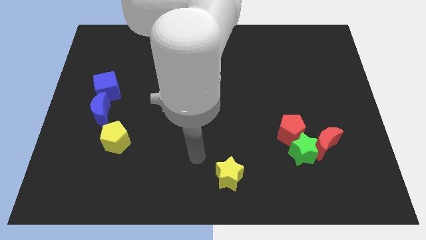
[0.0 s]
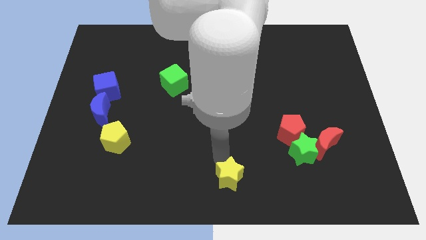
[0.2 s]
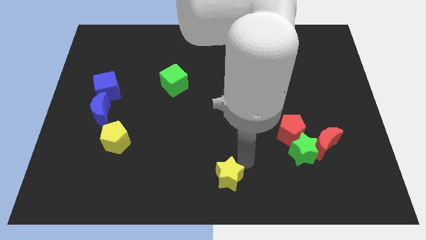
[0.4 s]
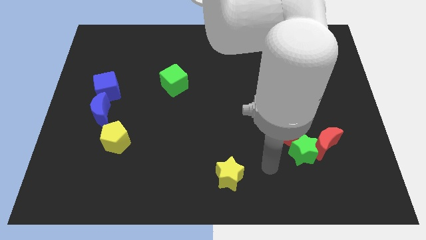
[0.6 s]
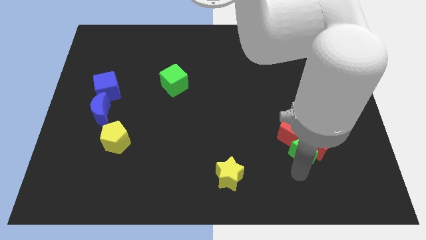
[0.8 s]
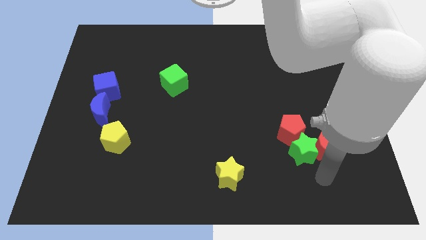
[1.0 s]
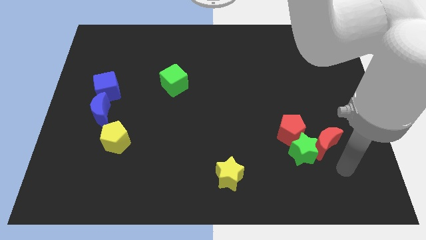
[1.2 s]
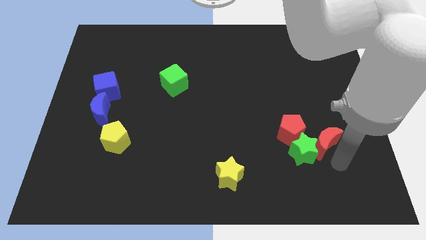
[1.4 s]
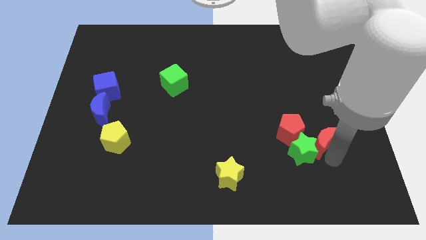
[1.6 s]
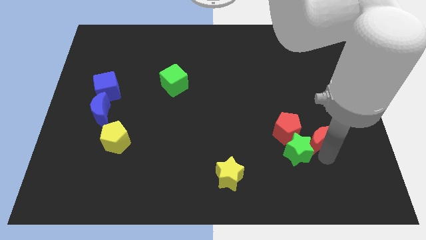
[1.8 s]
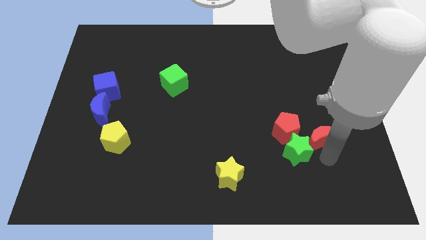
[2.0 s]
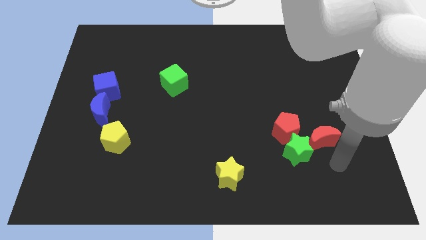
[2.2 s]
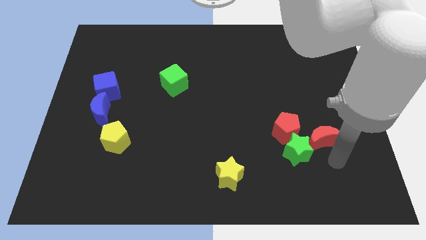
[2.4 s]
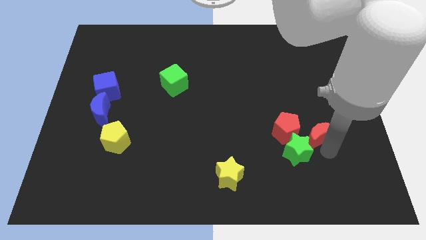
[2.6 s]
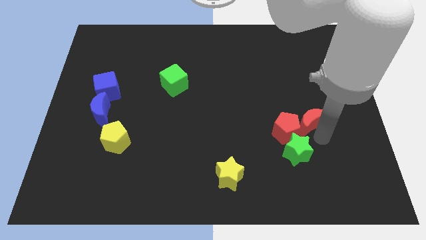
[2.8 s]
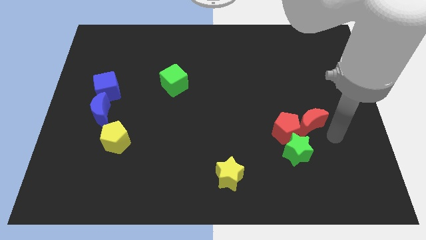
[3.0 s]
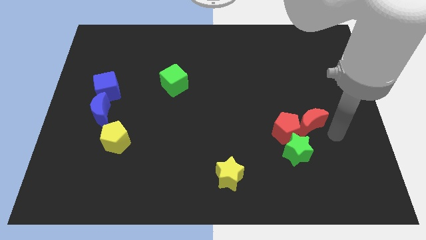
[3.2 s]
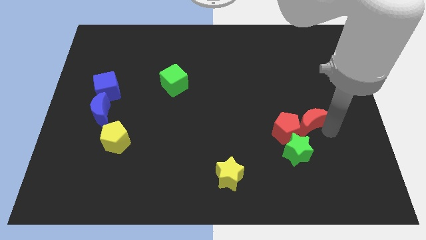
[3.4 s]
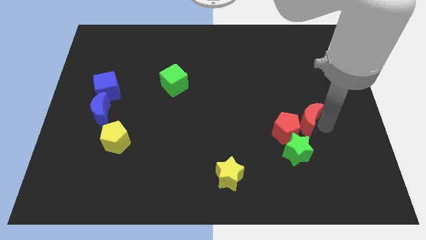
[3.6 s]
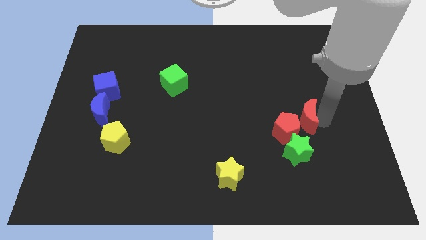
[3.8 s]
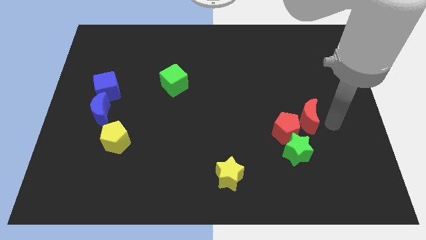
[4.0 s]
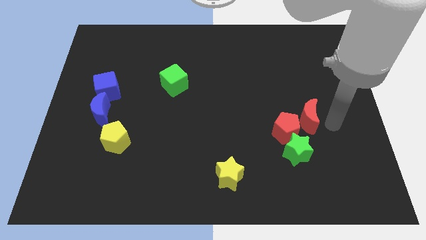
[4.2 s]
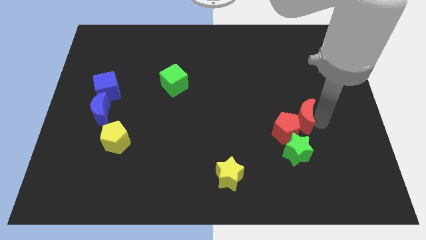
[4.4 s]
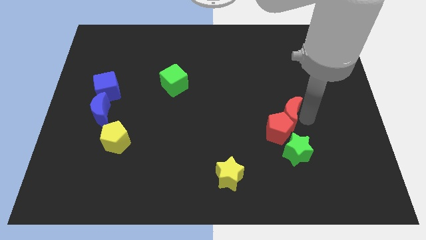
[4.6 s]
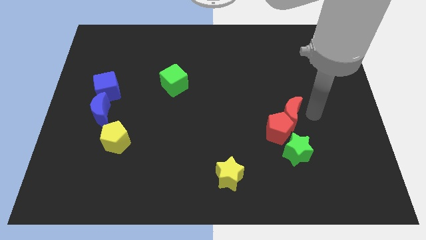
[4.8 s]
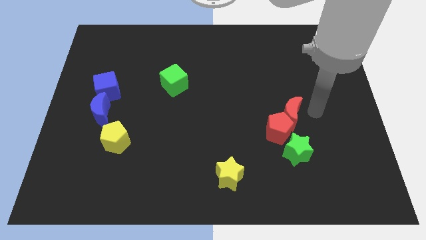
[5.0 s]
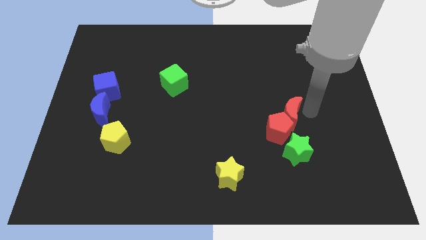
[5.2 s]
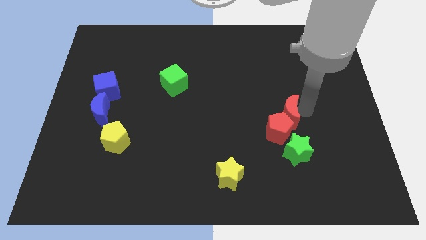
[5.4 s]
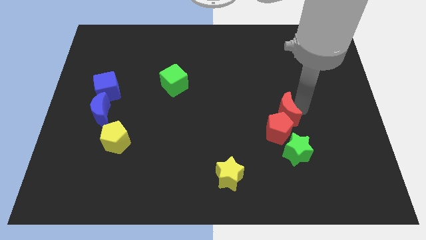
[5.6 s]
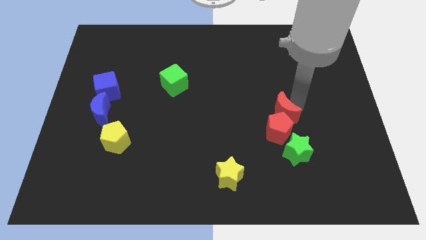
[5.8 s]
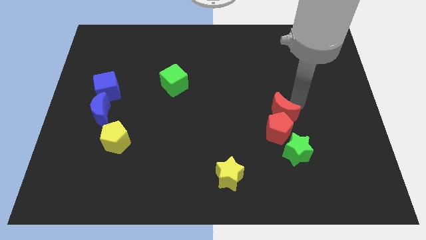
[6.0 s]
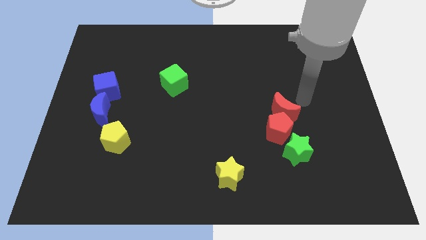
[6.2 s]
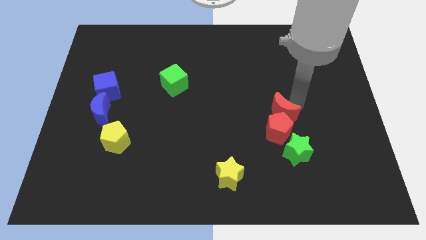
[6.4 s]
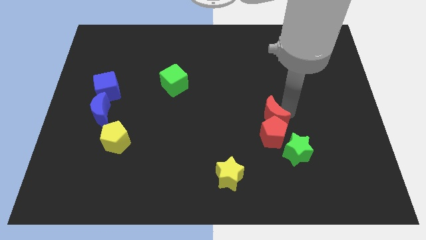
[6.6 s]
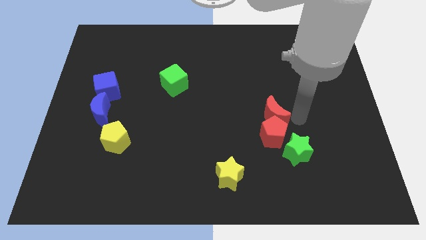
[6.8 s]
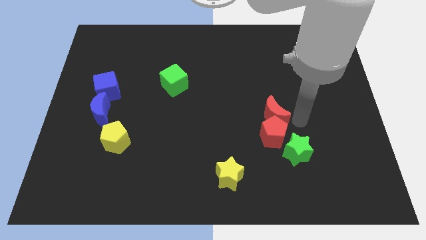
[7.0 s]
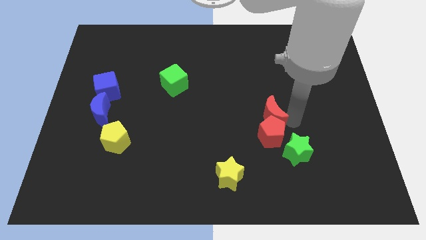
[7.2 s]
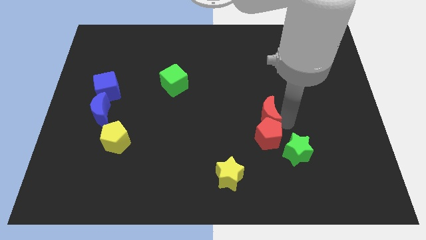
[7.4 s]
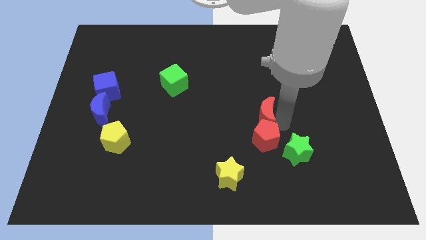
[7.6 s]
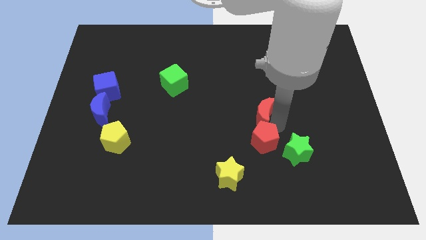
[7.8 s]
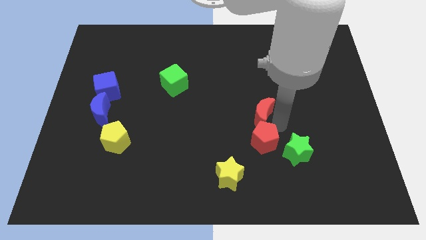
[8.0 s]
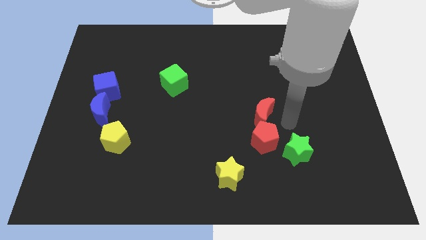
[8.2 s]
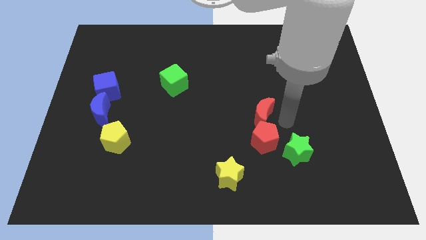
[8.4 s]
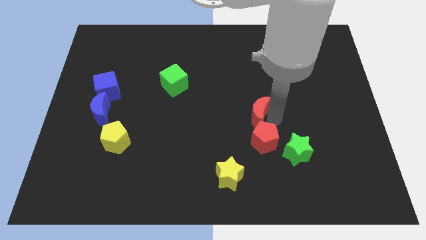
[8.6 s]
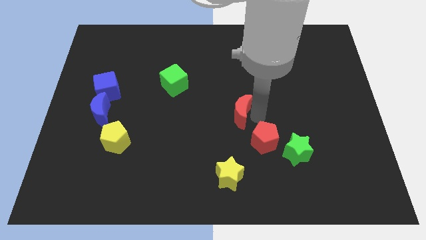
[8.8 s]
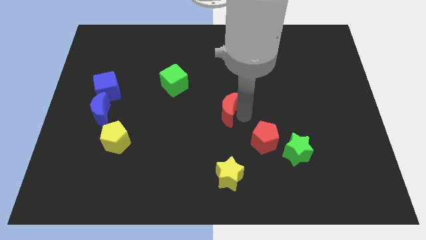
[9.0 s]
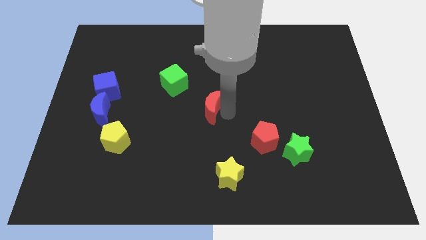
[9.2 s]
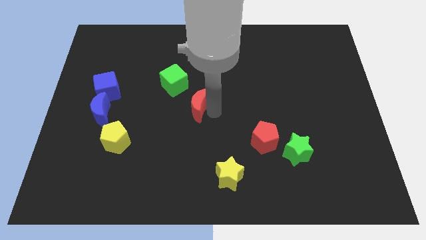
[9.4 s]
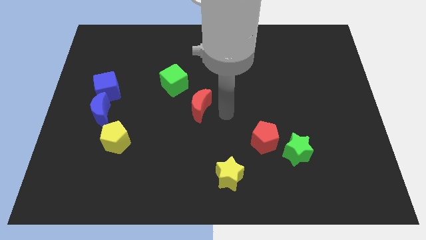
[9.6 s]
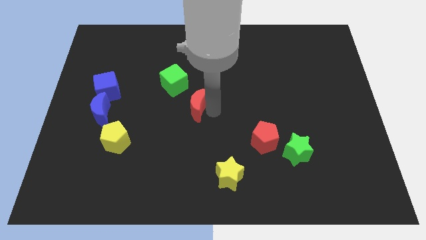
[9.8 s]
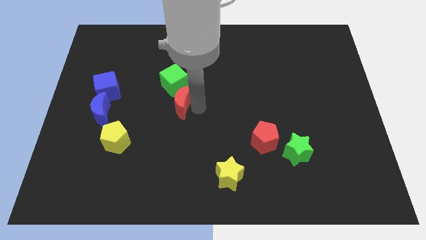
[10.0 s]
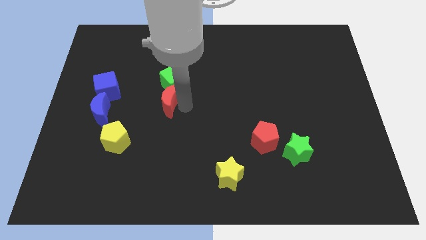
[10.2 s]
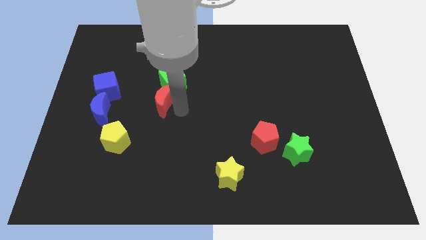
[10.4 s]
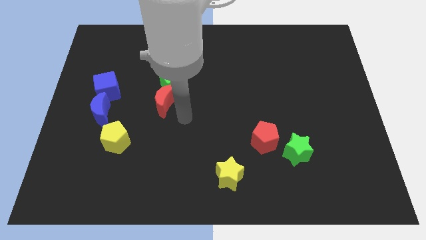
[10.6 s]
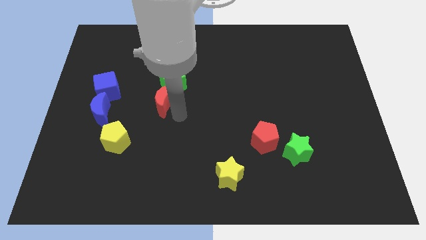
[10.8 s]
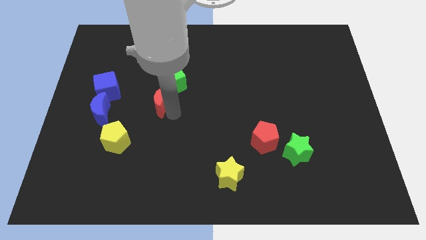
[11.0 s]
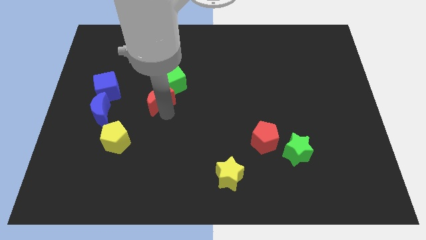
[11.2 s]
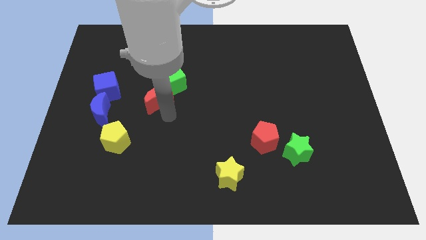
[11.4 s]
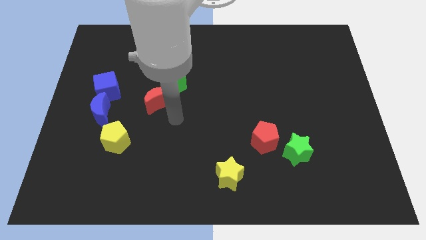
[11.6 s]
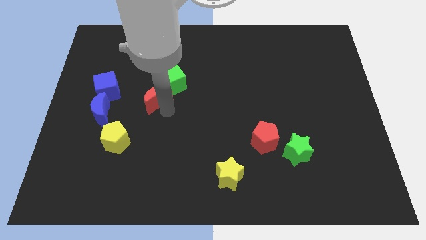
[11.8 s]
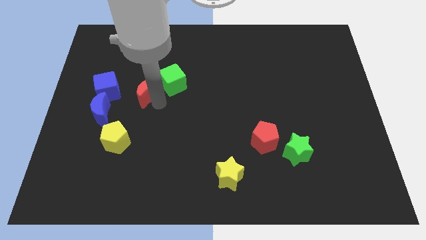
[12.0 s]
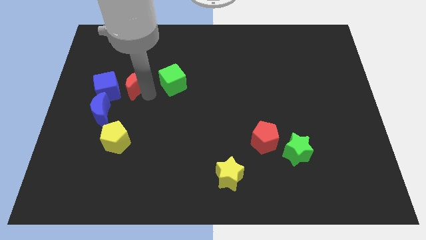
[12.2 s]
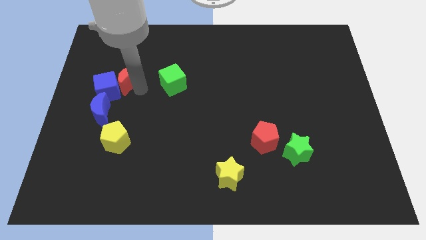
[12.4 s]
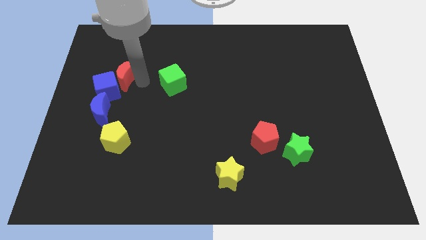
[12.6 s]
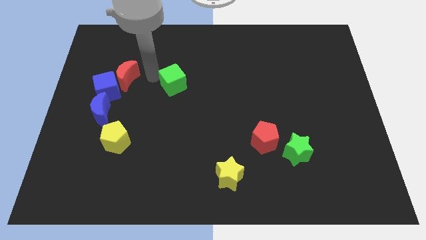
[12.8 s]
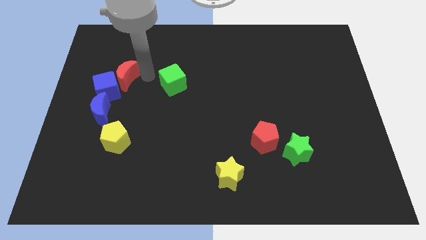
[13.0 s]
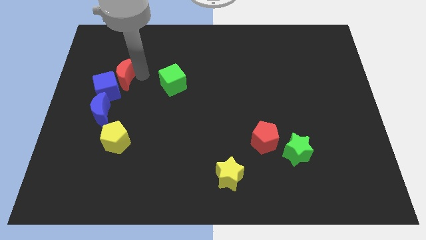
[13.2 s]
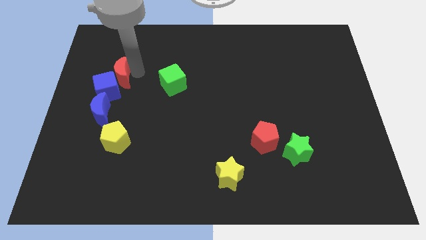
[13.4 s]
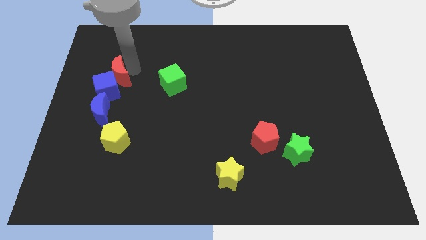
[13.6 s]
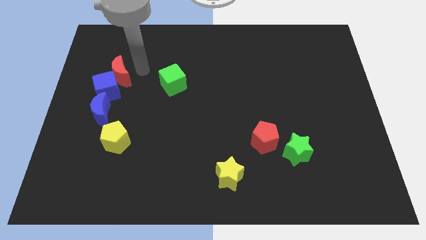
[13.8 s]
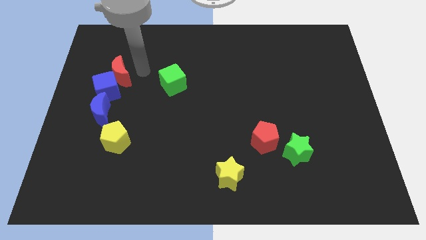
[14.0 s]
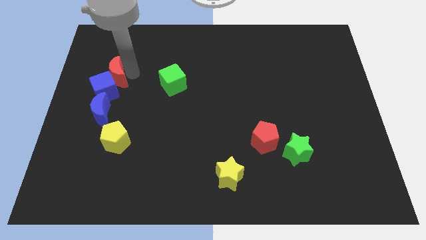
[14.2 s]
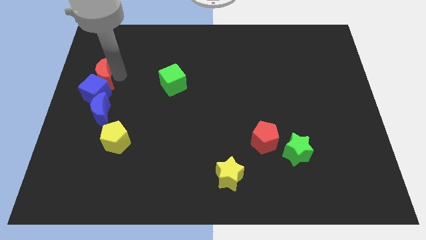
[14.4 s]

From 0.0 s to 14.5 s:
slide the red moon to the center left

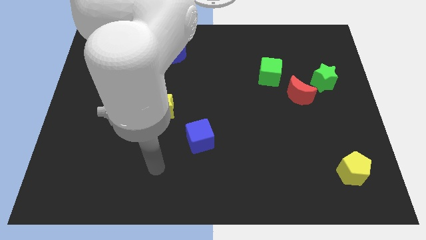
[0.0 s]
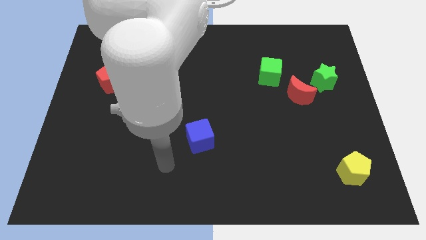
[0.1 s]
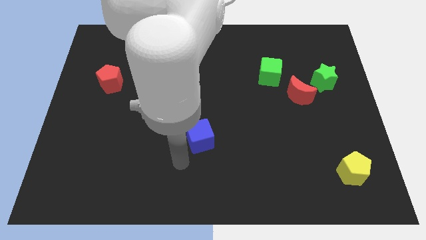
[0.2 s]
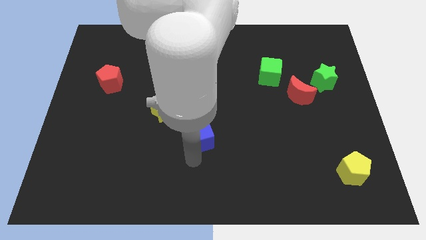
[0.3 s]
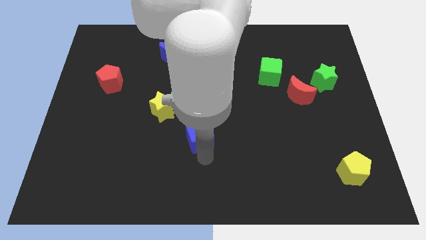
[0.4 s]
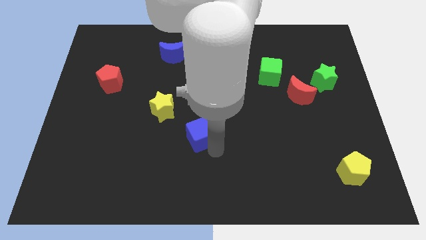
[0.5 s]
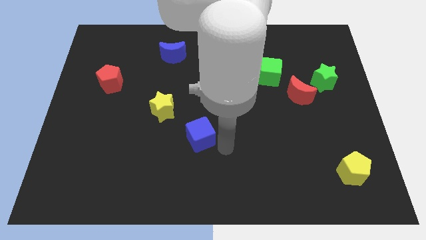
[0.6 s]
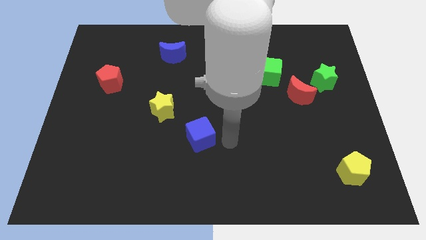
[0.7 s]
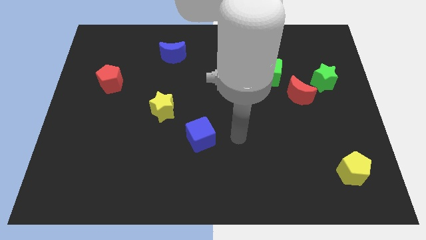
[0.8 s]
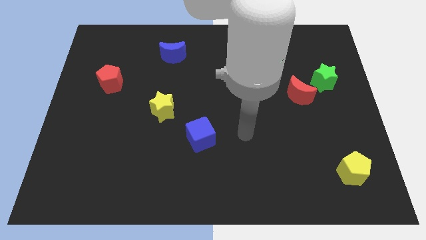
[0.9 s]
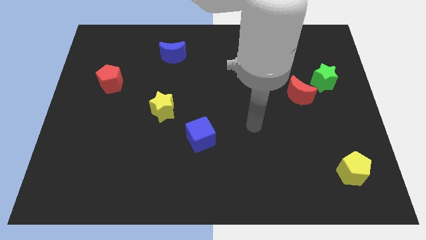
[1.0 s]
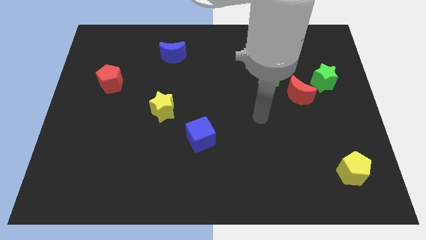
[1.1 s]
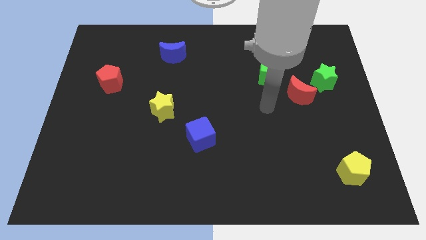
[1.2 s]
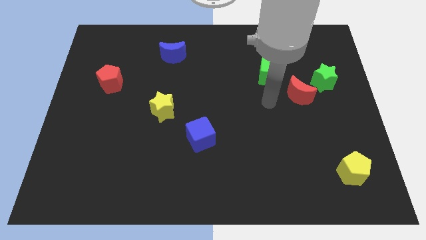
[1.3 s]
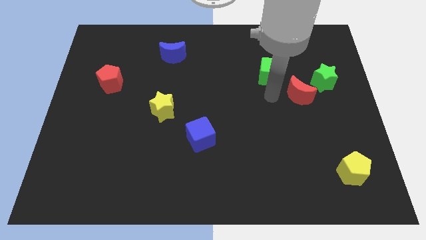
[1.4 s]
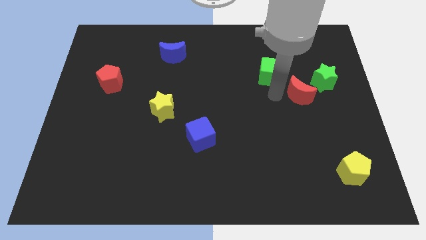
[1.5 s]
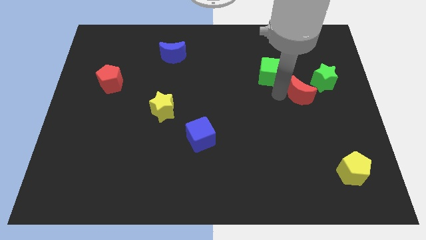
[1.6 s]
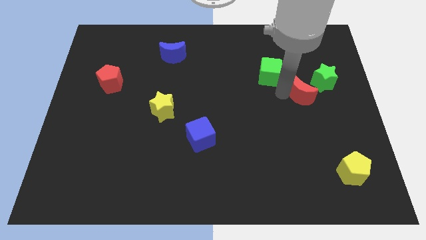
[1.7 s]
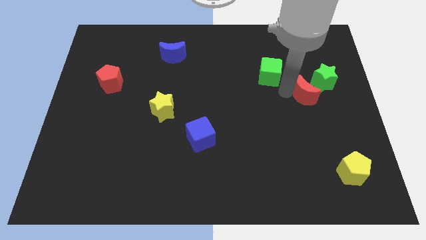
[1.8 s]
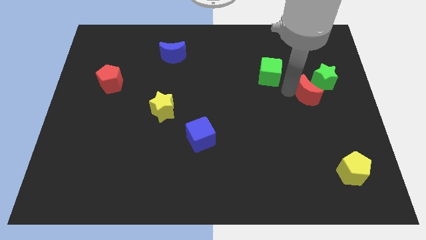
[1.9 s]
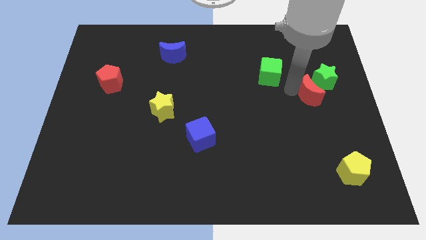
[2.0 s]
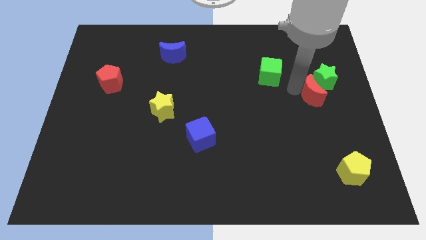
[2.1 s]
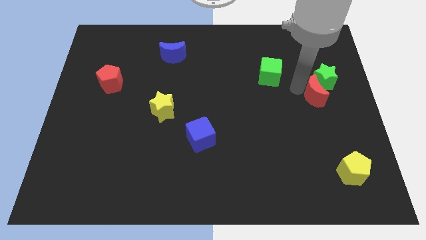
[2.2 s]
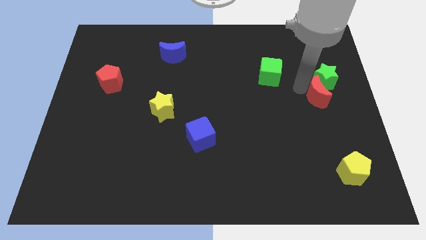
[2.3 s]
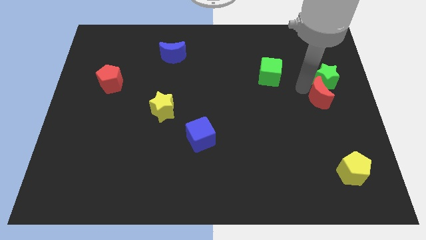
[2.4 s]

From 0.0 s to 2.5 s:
put the red moon to the right side
